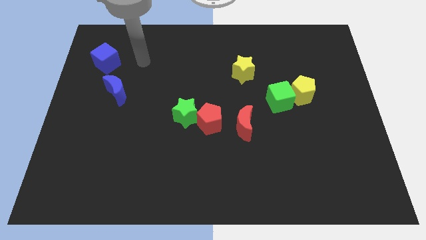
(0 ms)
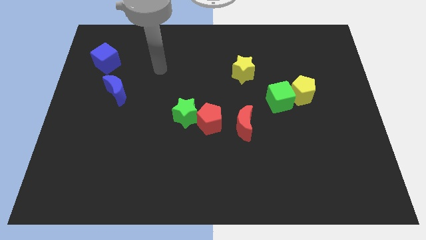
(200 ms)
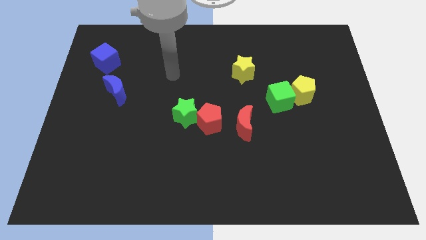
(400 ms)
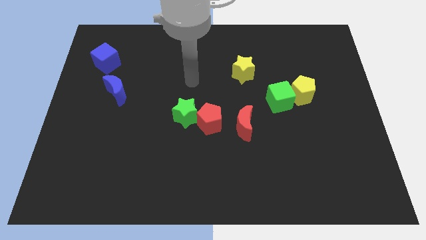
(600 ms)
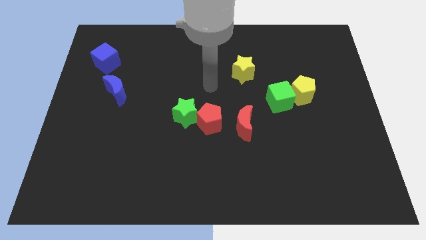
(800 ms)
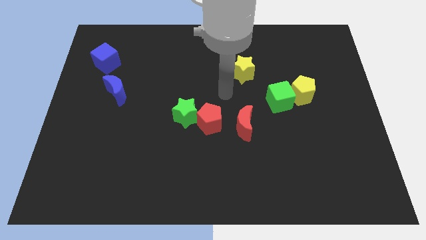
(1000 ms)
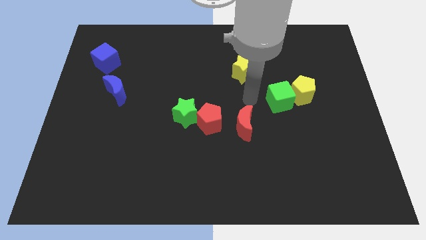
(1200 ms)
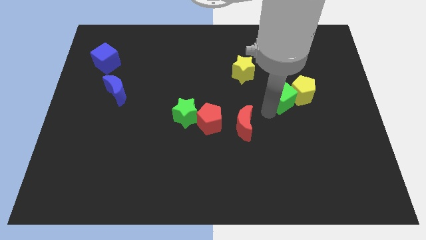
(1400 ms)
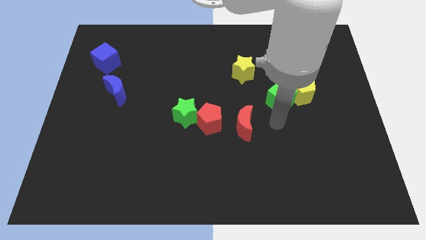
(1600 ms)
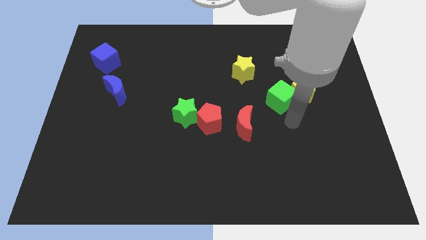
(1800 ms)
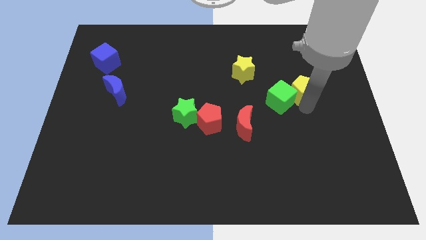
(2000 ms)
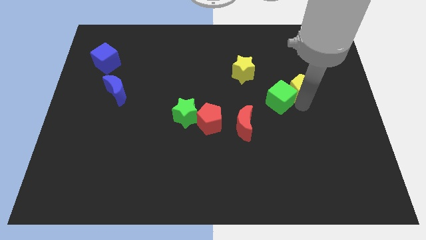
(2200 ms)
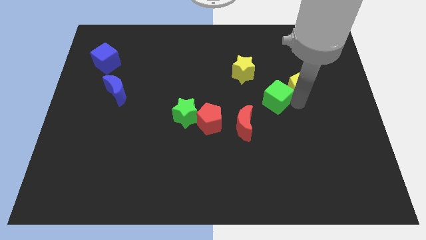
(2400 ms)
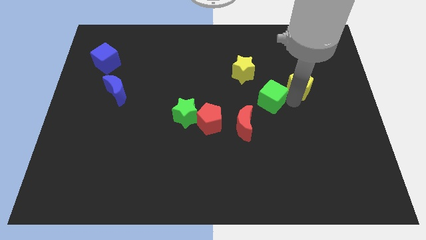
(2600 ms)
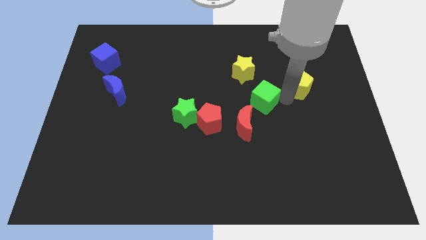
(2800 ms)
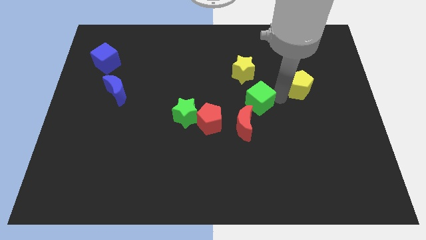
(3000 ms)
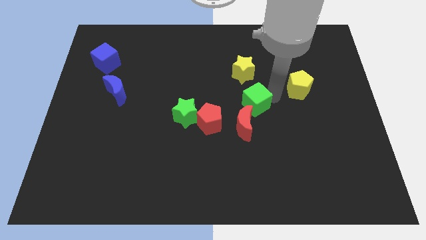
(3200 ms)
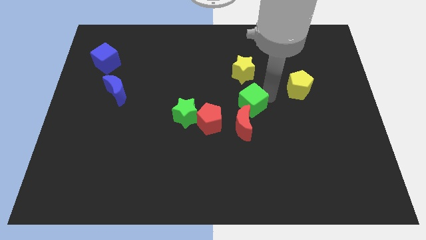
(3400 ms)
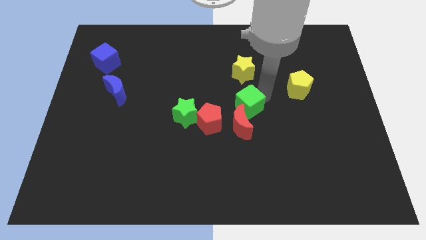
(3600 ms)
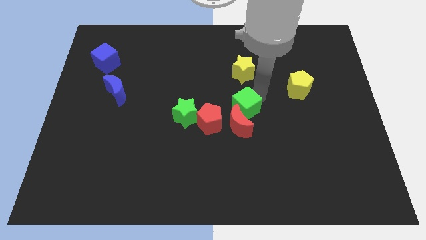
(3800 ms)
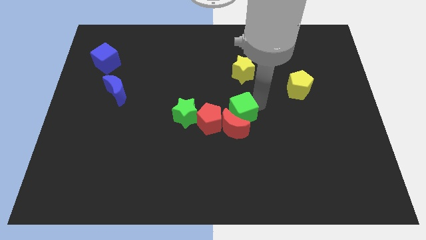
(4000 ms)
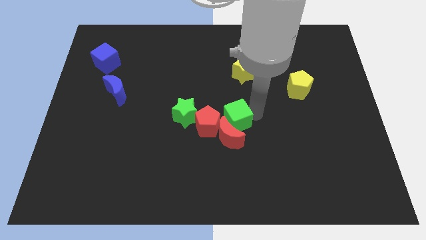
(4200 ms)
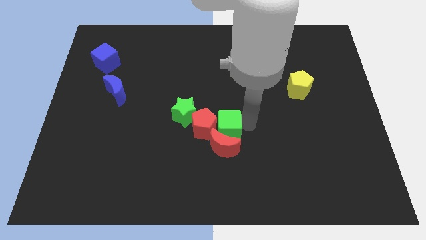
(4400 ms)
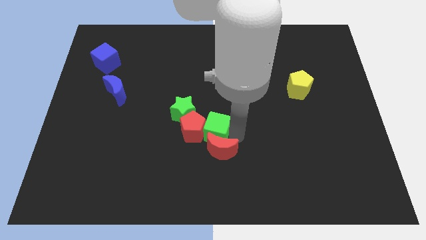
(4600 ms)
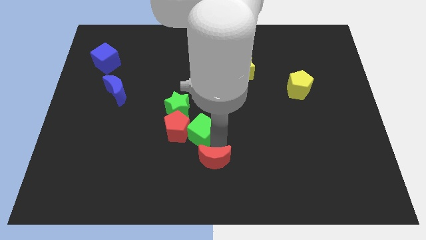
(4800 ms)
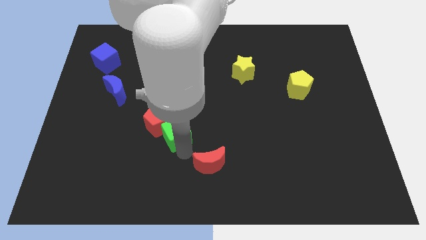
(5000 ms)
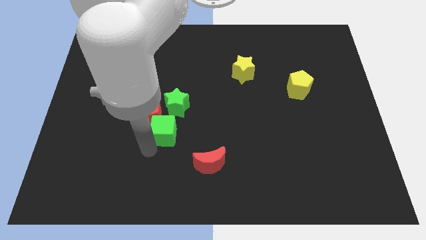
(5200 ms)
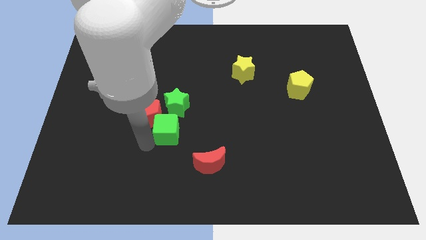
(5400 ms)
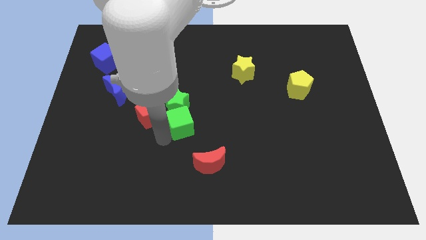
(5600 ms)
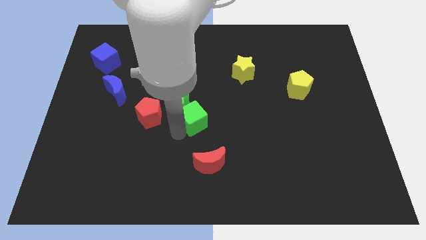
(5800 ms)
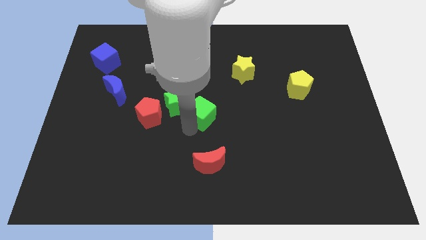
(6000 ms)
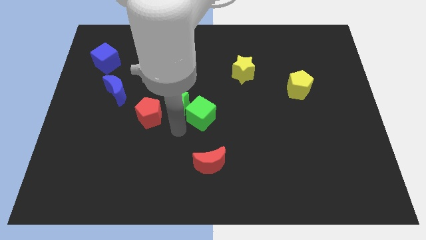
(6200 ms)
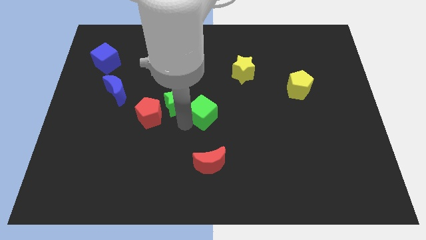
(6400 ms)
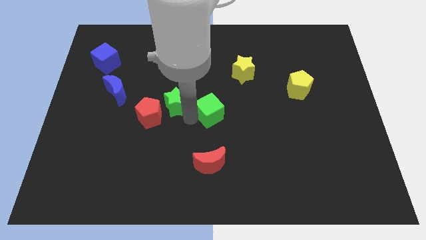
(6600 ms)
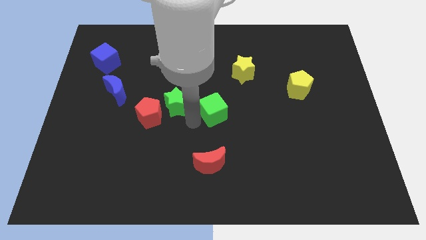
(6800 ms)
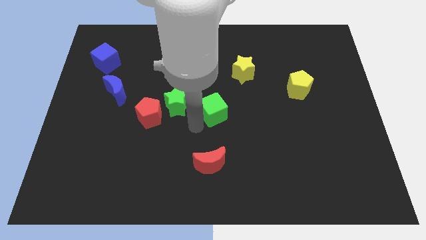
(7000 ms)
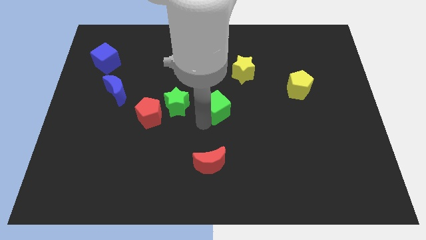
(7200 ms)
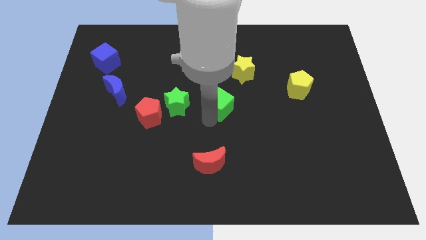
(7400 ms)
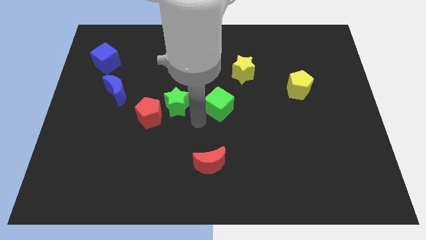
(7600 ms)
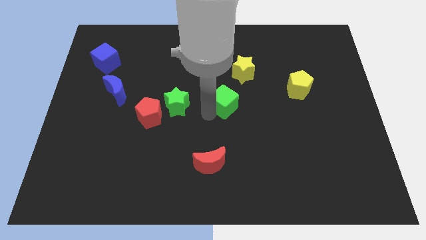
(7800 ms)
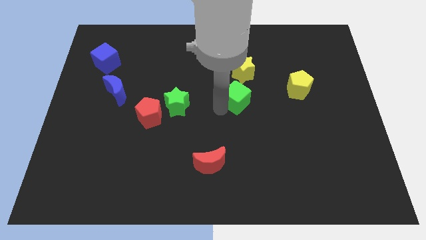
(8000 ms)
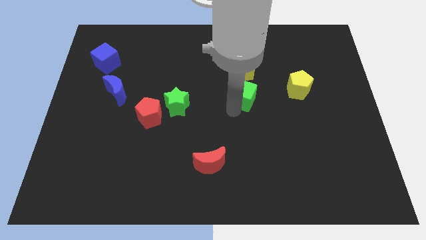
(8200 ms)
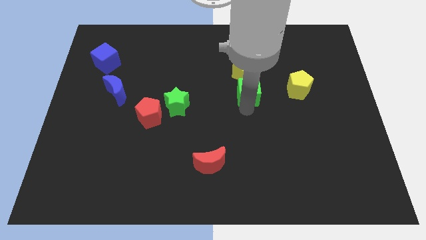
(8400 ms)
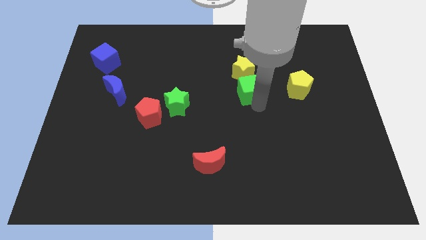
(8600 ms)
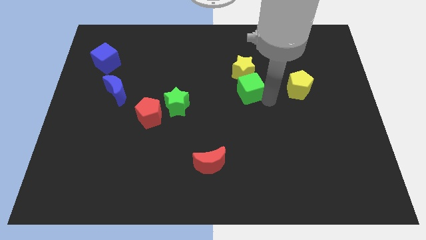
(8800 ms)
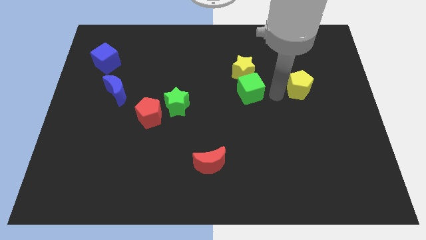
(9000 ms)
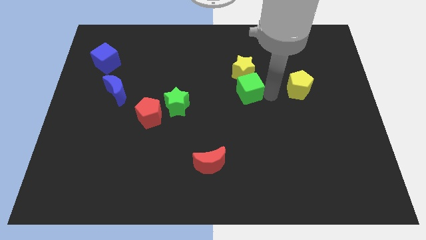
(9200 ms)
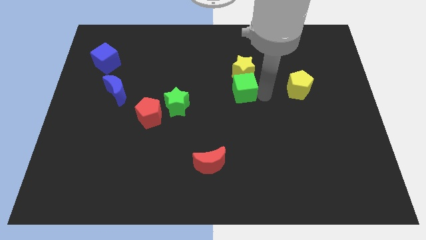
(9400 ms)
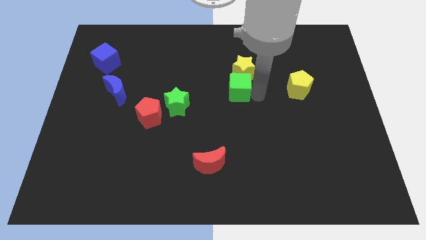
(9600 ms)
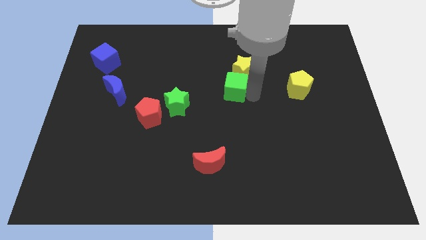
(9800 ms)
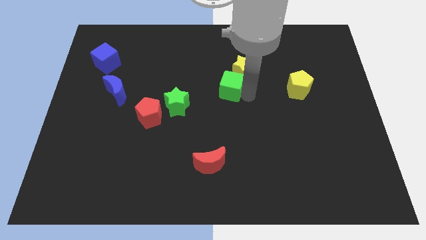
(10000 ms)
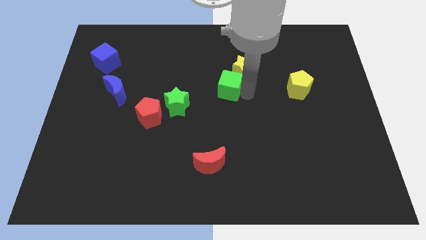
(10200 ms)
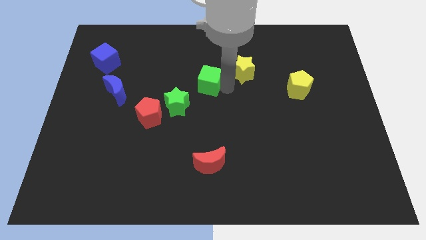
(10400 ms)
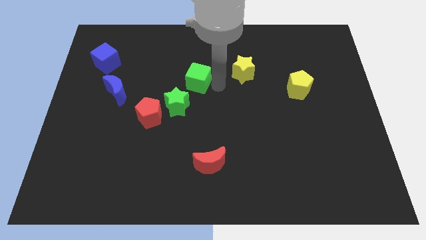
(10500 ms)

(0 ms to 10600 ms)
put the green cube to the top side of the green star

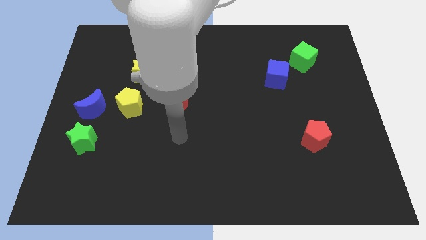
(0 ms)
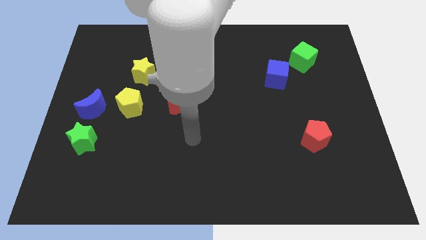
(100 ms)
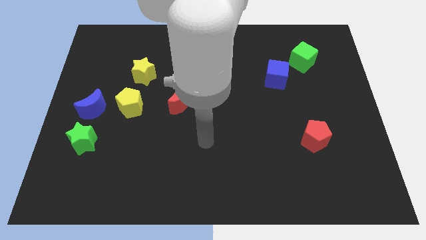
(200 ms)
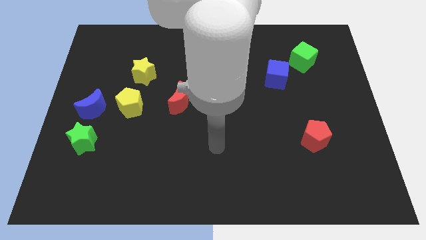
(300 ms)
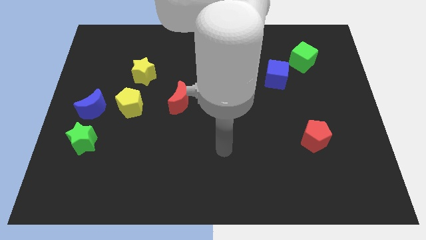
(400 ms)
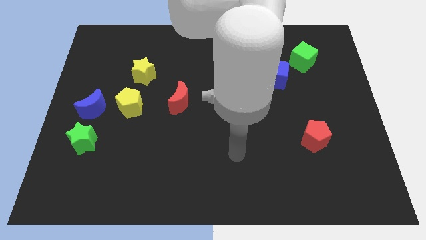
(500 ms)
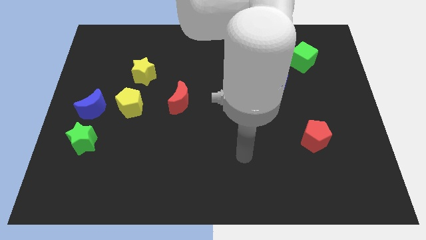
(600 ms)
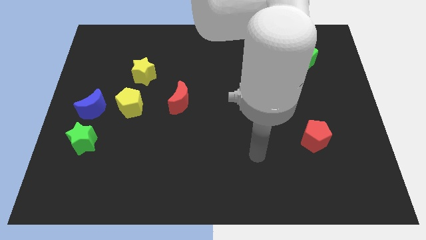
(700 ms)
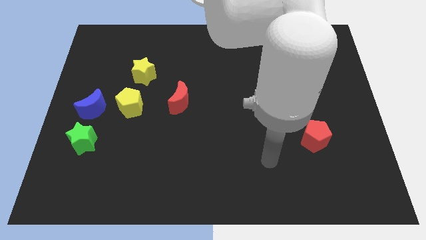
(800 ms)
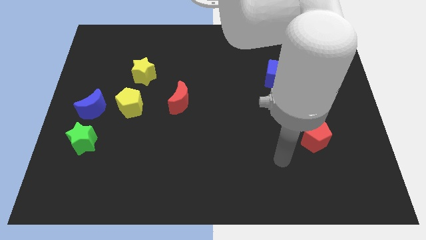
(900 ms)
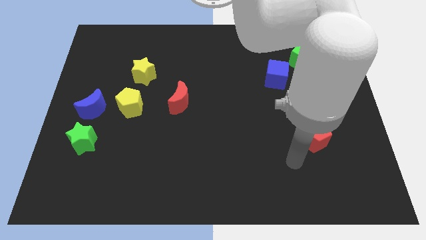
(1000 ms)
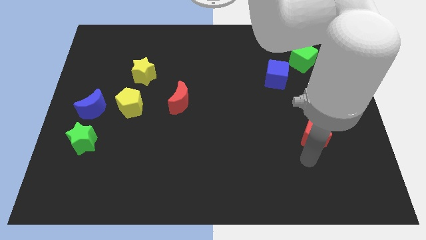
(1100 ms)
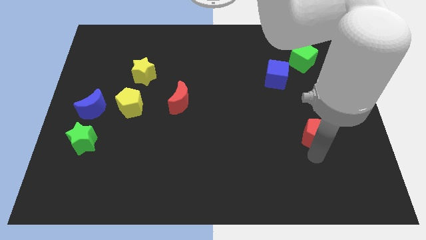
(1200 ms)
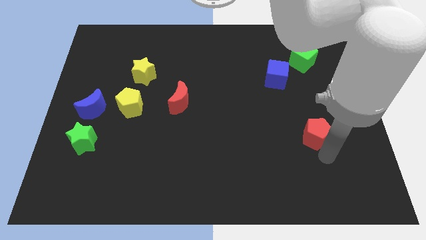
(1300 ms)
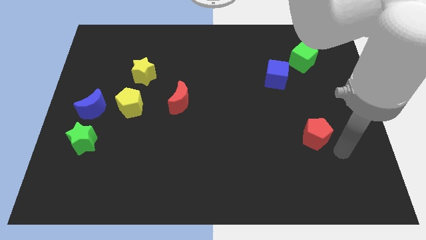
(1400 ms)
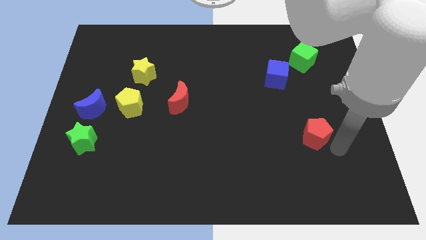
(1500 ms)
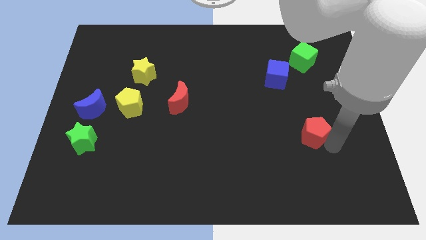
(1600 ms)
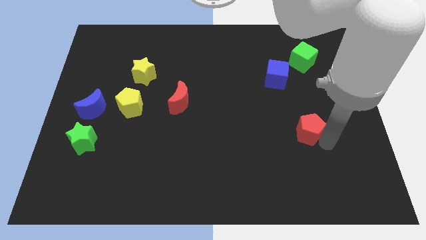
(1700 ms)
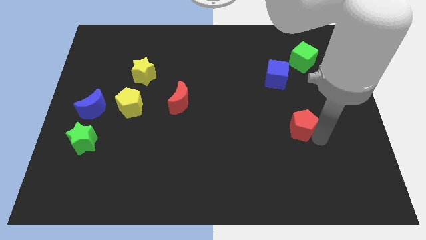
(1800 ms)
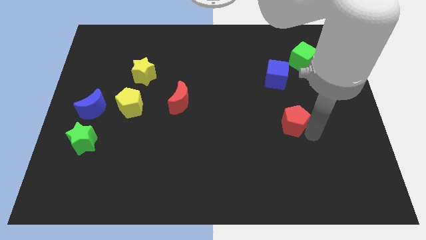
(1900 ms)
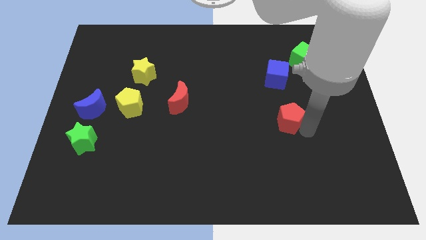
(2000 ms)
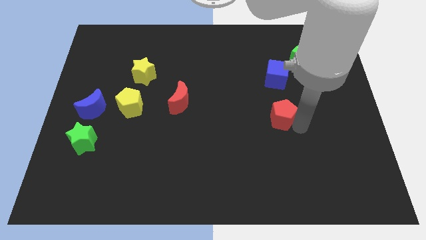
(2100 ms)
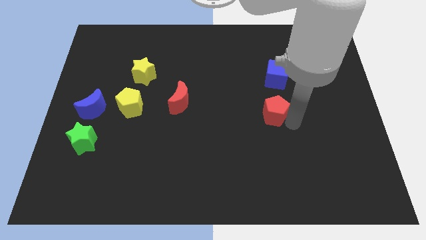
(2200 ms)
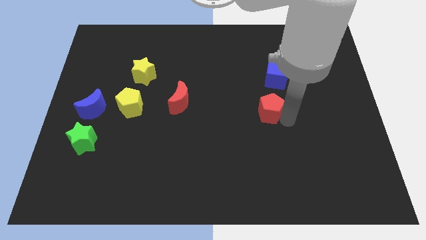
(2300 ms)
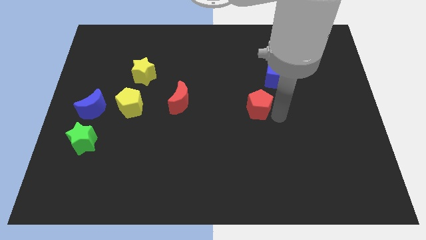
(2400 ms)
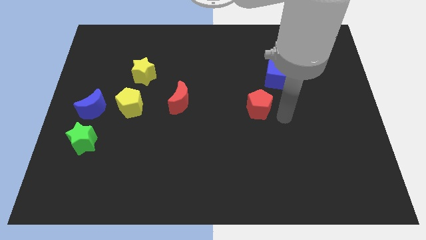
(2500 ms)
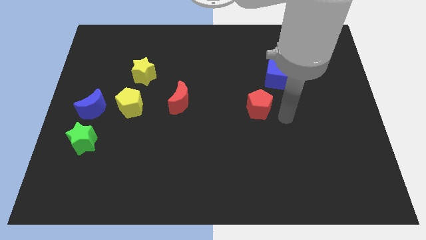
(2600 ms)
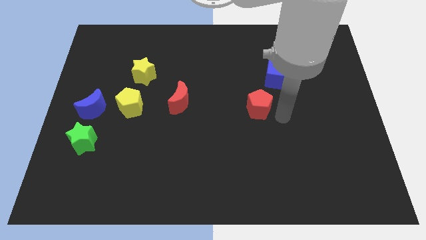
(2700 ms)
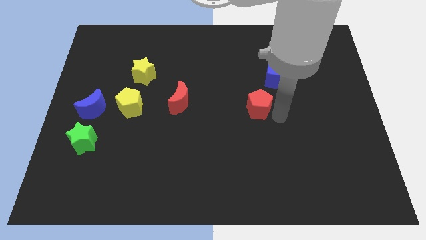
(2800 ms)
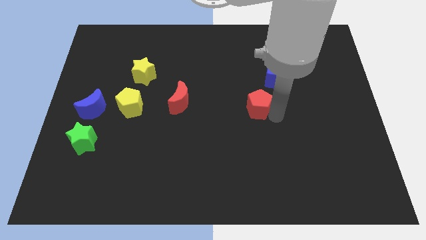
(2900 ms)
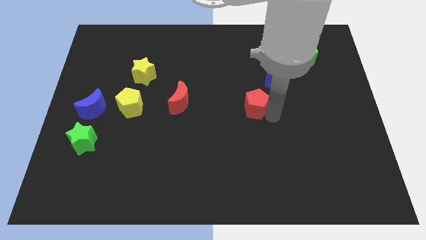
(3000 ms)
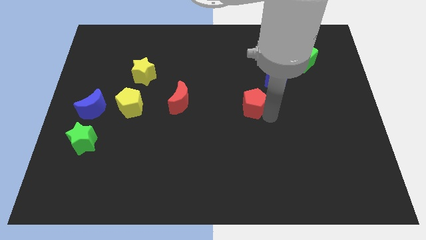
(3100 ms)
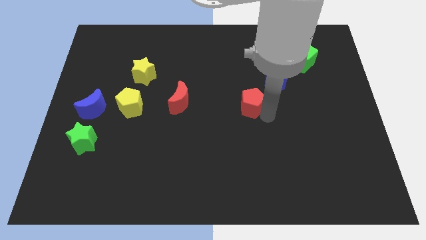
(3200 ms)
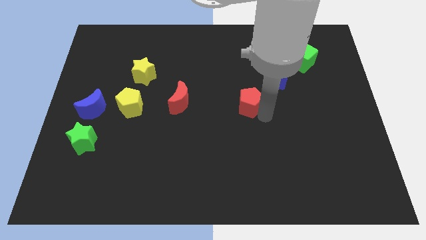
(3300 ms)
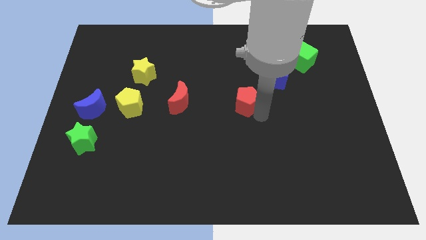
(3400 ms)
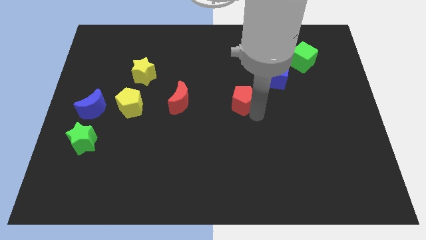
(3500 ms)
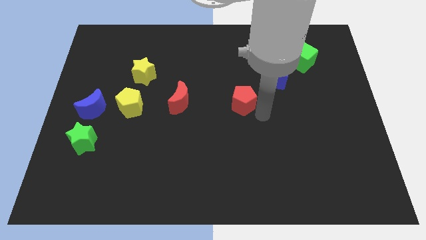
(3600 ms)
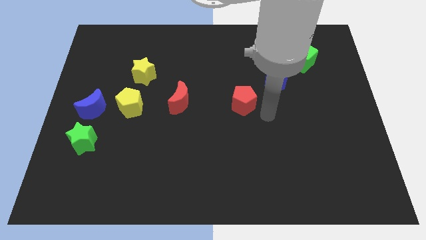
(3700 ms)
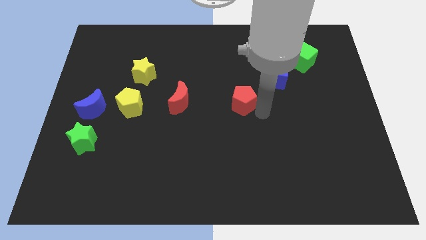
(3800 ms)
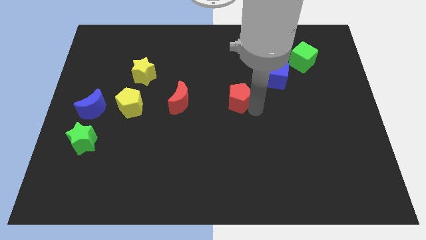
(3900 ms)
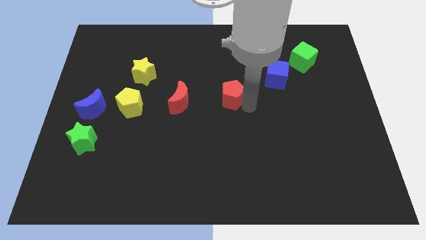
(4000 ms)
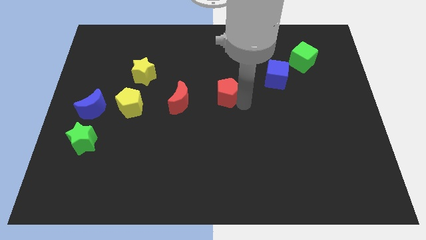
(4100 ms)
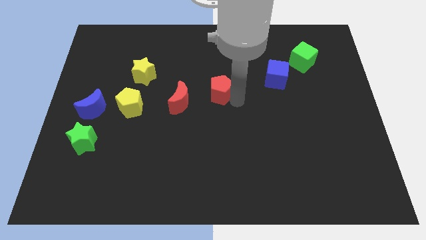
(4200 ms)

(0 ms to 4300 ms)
put the red pentagon to the top right side of the red moon
